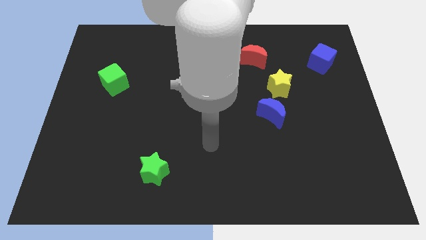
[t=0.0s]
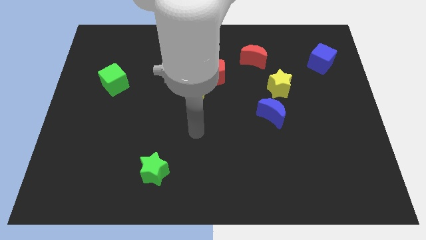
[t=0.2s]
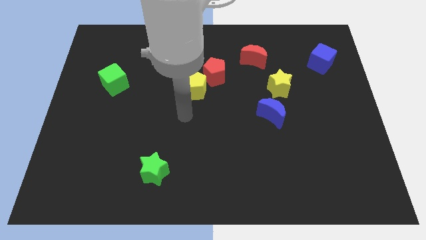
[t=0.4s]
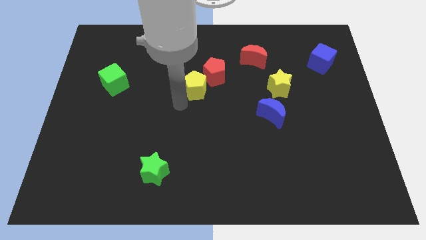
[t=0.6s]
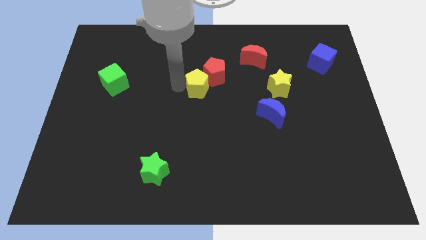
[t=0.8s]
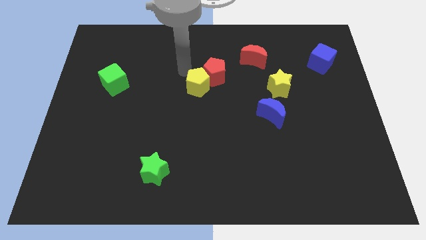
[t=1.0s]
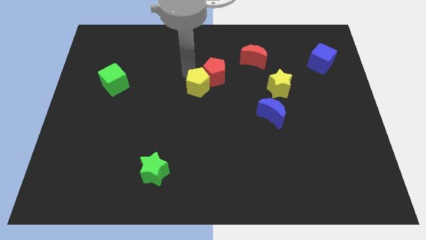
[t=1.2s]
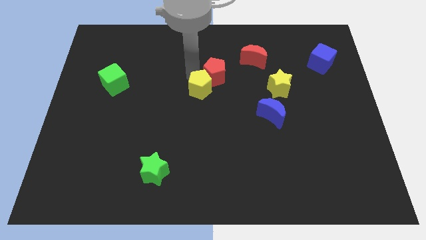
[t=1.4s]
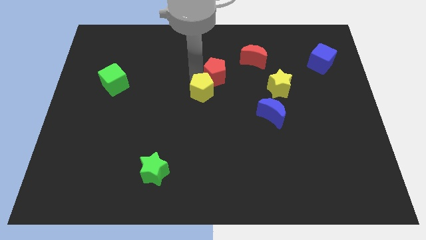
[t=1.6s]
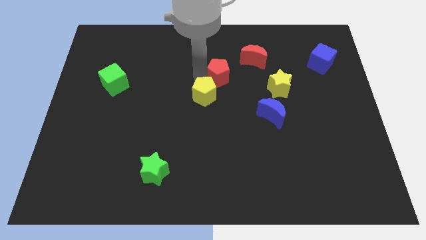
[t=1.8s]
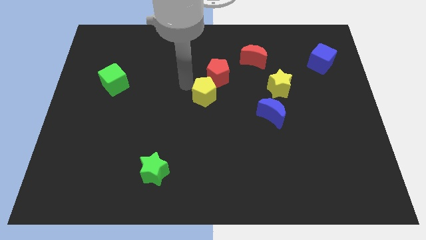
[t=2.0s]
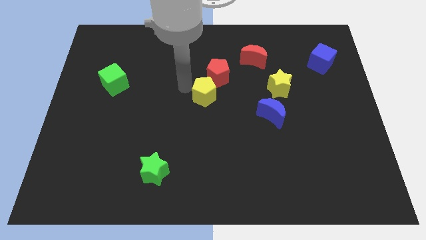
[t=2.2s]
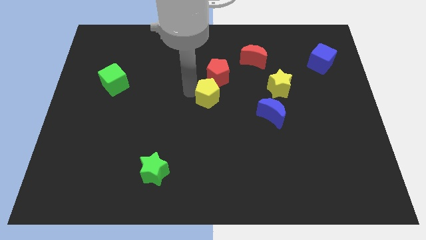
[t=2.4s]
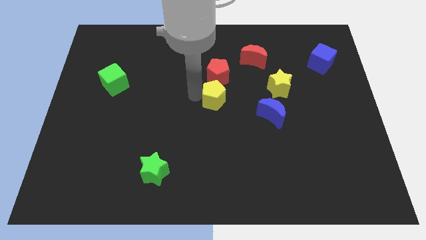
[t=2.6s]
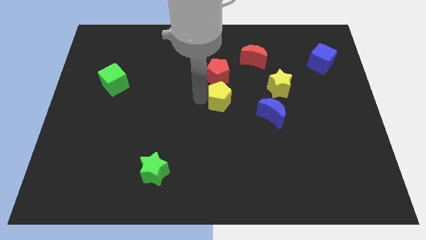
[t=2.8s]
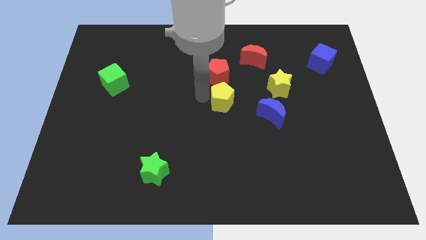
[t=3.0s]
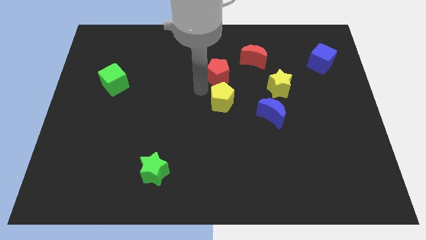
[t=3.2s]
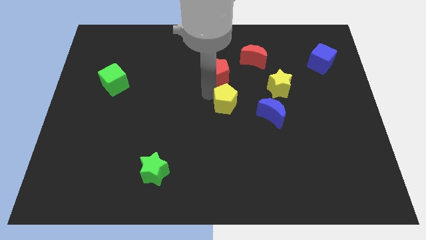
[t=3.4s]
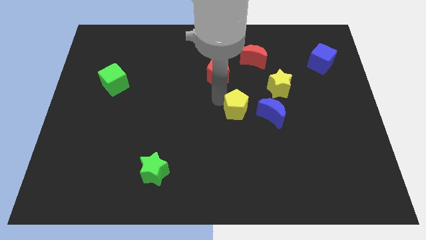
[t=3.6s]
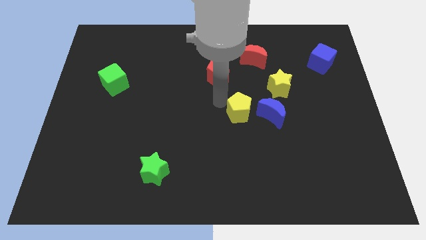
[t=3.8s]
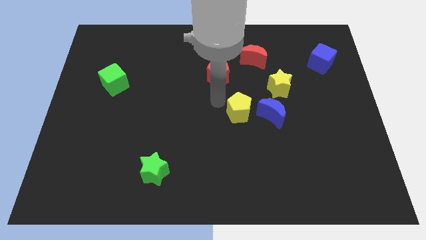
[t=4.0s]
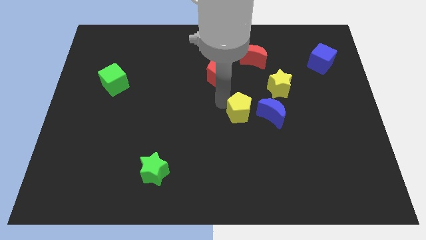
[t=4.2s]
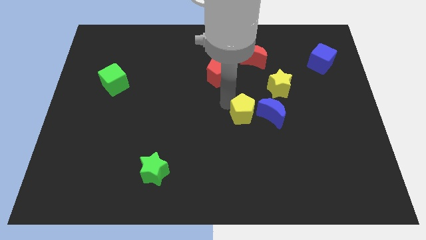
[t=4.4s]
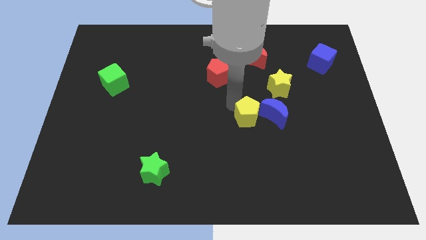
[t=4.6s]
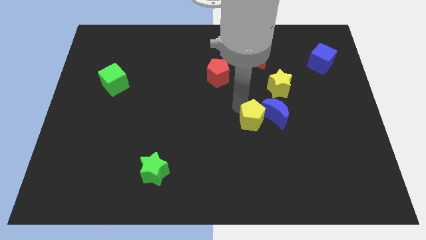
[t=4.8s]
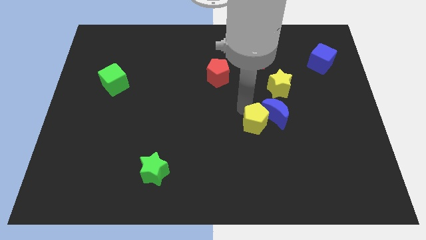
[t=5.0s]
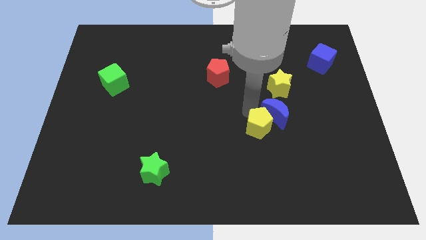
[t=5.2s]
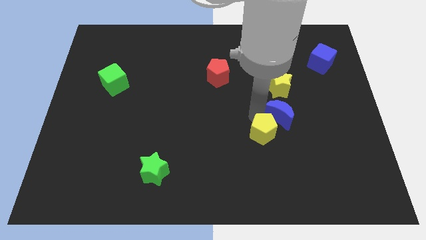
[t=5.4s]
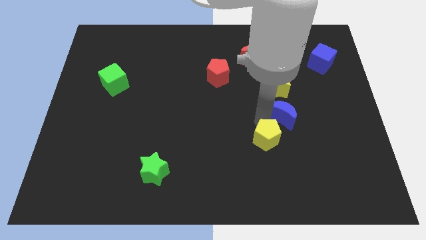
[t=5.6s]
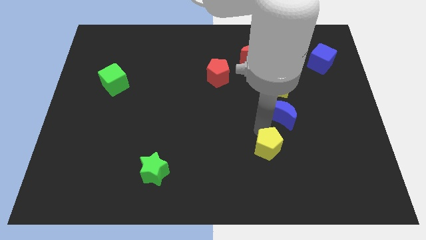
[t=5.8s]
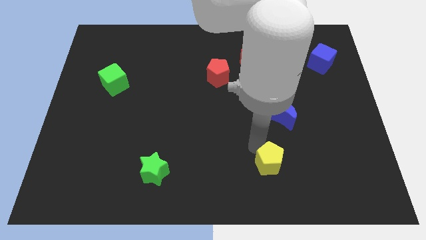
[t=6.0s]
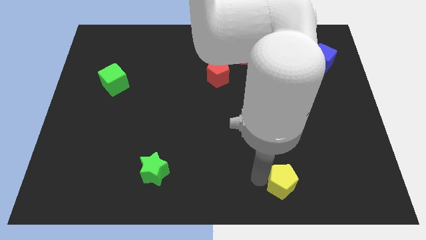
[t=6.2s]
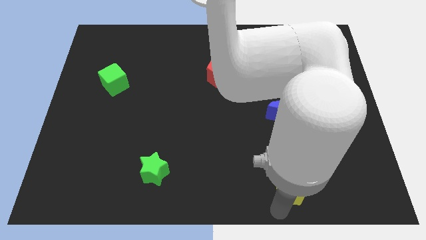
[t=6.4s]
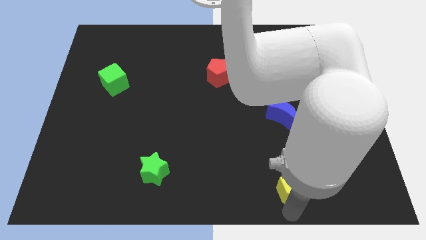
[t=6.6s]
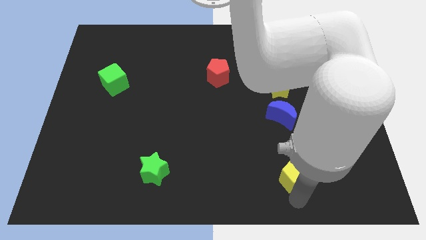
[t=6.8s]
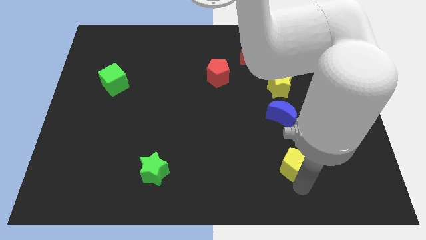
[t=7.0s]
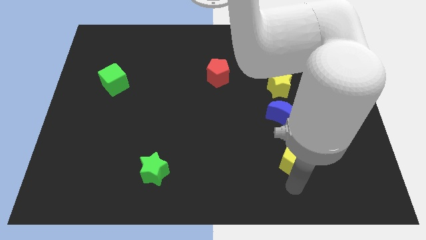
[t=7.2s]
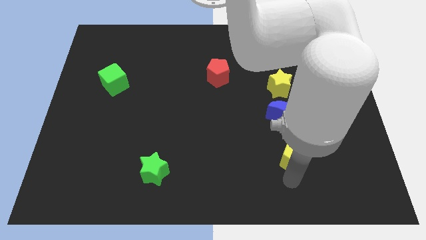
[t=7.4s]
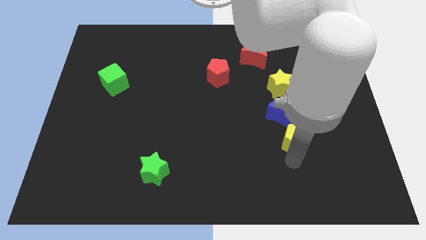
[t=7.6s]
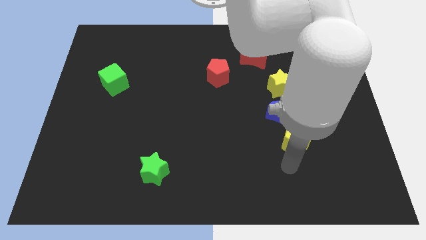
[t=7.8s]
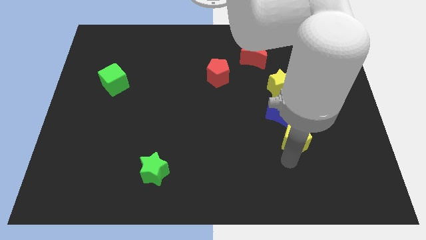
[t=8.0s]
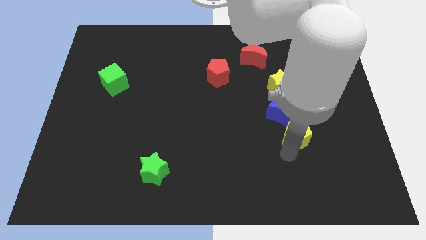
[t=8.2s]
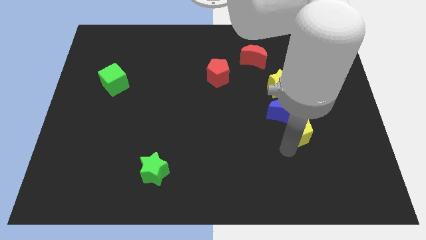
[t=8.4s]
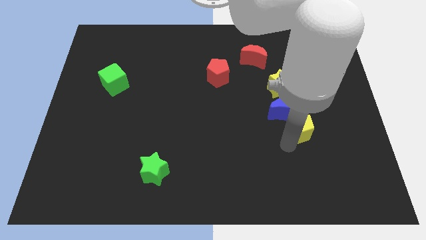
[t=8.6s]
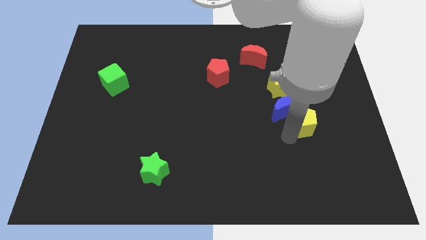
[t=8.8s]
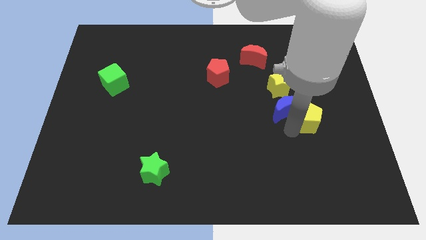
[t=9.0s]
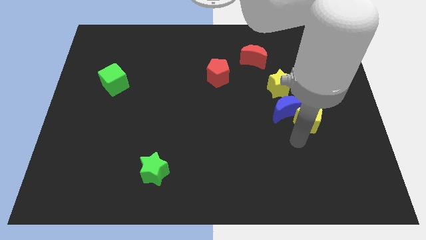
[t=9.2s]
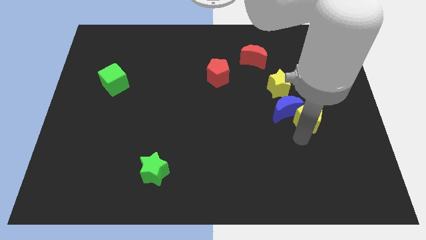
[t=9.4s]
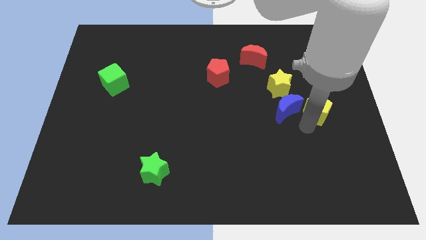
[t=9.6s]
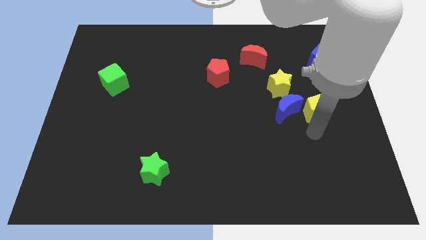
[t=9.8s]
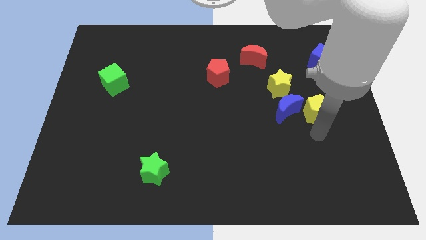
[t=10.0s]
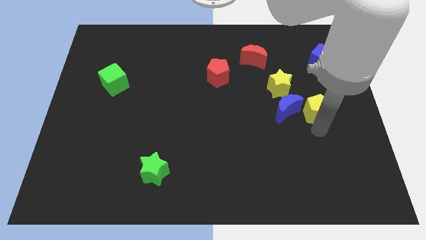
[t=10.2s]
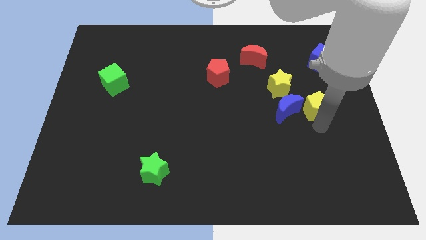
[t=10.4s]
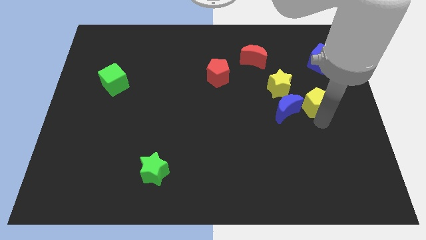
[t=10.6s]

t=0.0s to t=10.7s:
move the yellow pentagon to the bottom side of the blue cube

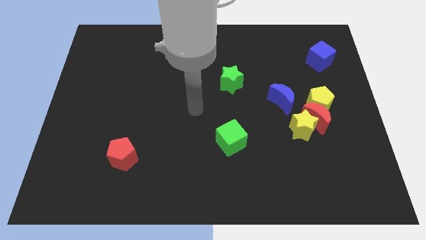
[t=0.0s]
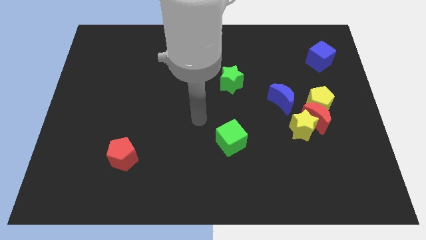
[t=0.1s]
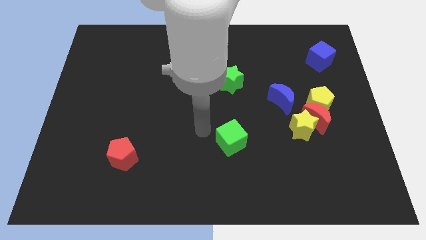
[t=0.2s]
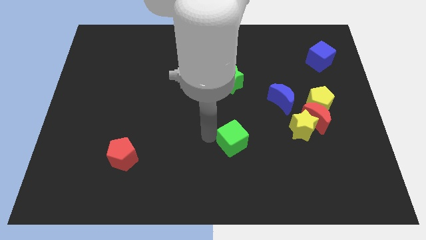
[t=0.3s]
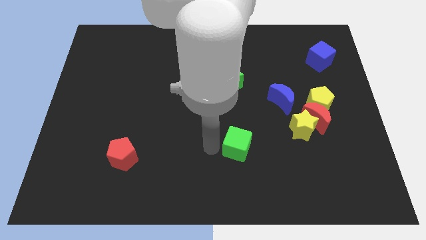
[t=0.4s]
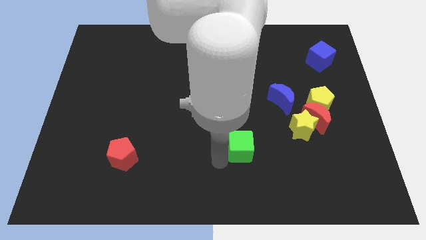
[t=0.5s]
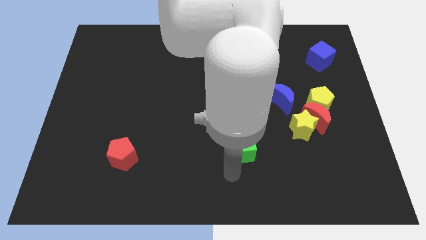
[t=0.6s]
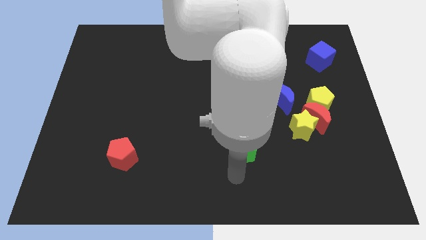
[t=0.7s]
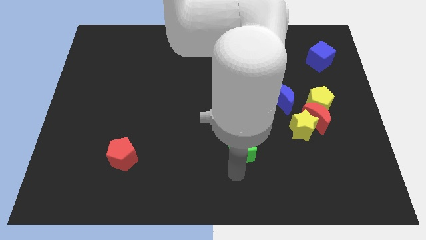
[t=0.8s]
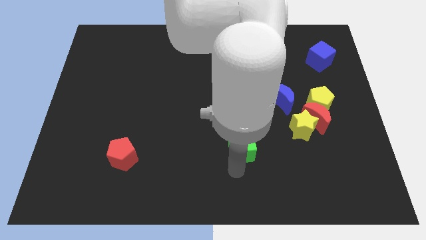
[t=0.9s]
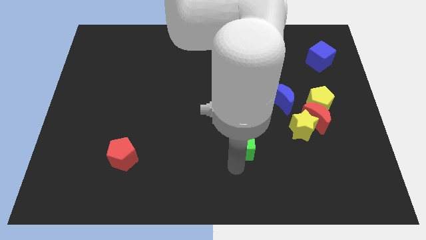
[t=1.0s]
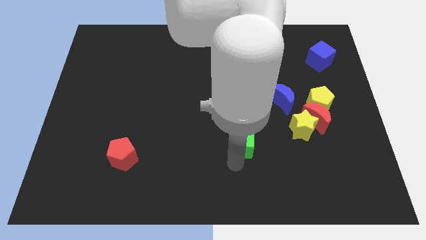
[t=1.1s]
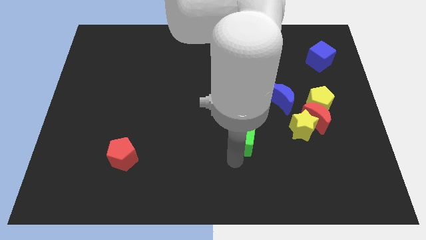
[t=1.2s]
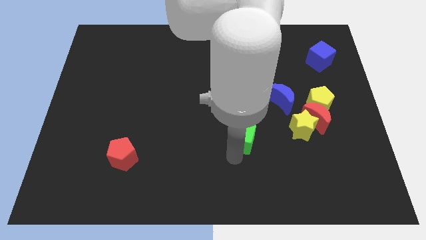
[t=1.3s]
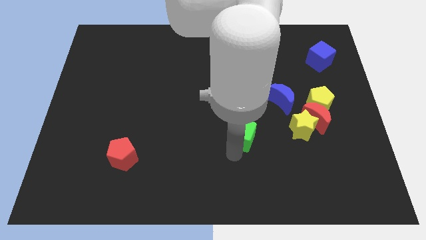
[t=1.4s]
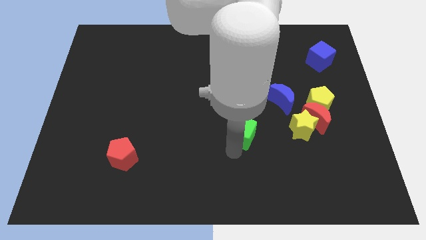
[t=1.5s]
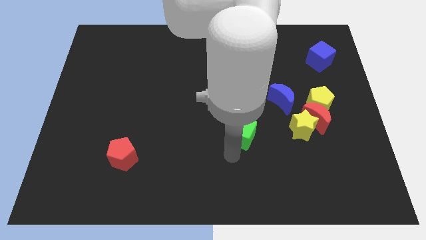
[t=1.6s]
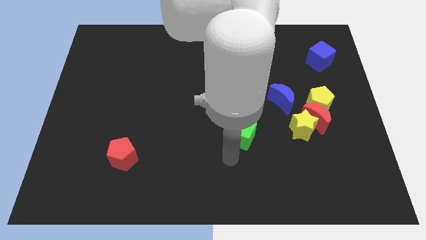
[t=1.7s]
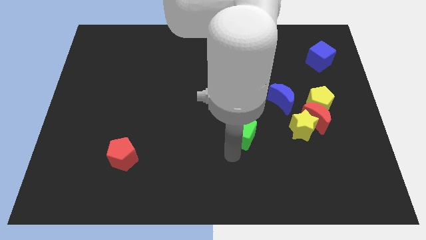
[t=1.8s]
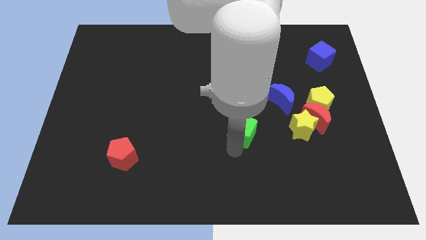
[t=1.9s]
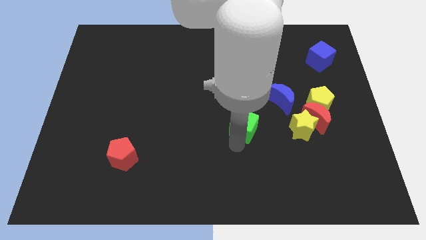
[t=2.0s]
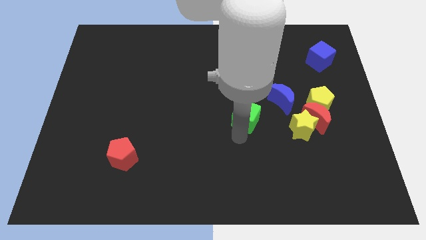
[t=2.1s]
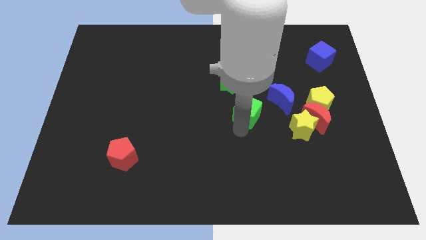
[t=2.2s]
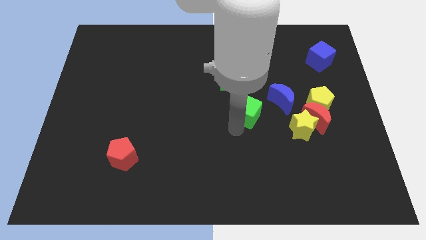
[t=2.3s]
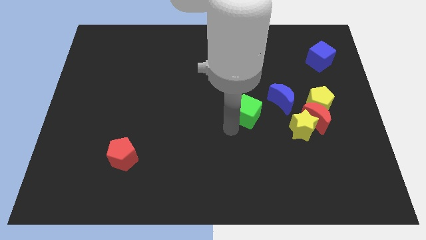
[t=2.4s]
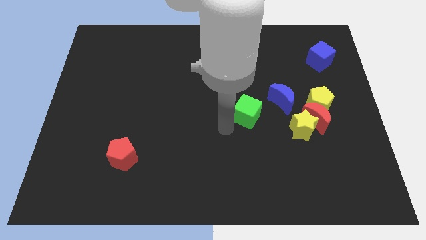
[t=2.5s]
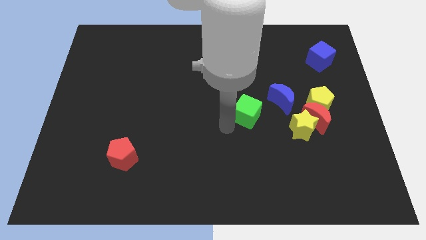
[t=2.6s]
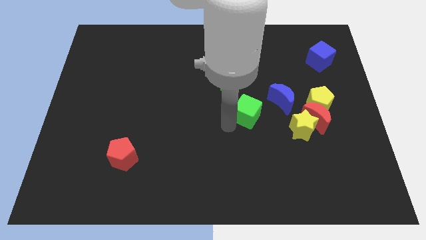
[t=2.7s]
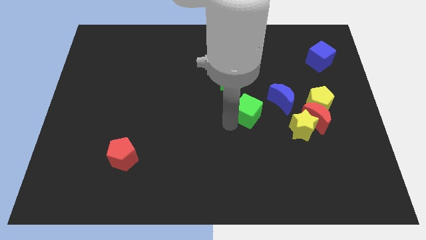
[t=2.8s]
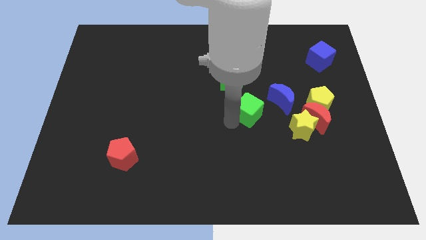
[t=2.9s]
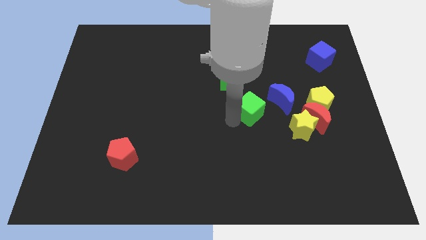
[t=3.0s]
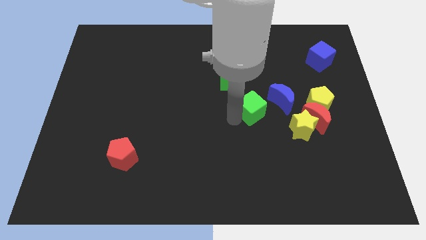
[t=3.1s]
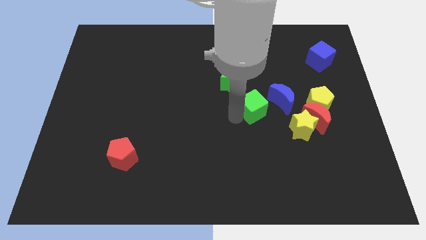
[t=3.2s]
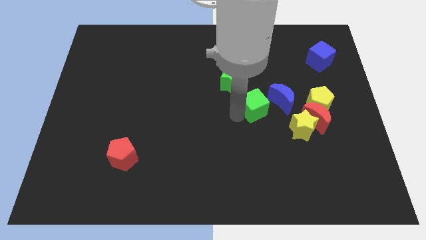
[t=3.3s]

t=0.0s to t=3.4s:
put the green cube diagonally up and to the left of the yellow star
